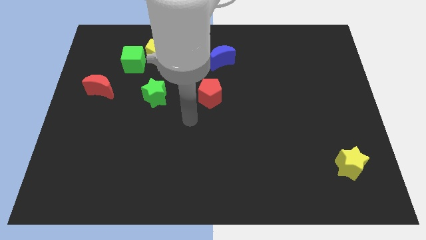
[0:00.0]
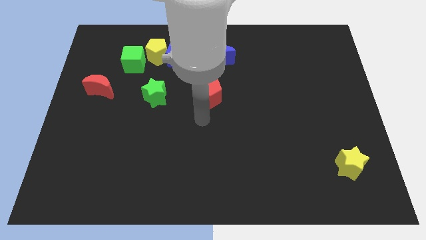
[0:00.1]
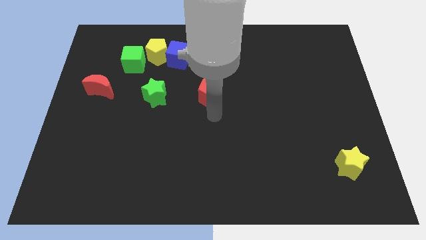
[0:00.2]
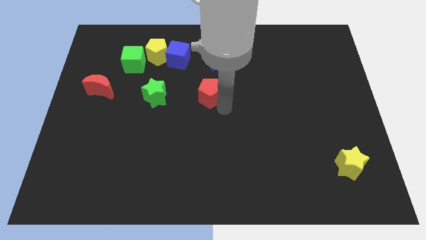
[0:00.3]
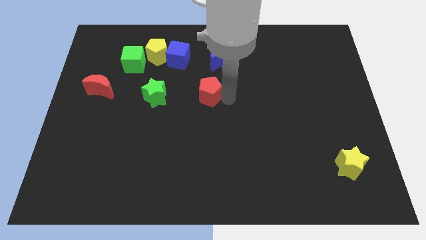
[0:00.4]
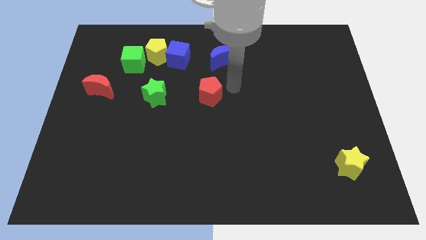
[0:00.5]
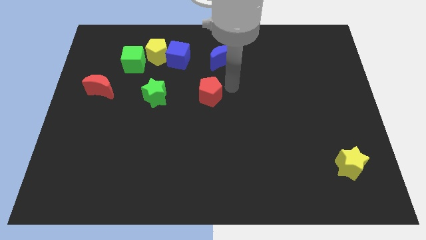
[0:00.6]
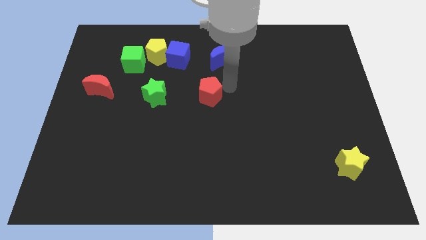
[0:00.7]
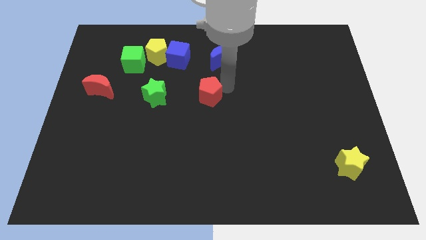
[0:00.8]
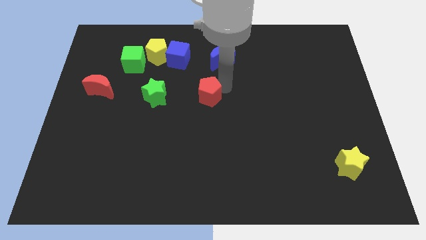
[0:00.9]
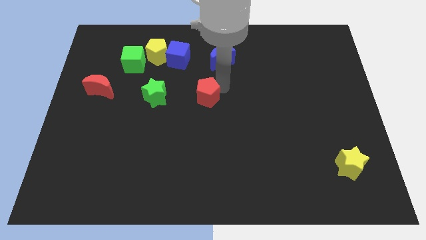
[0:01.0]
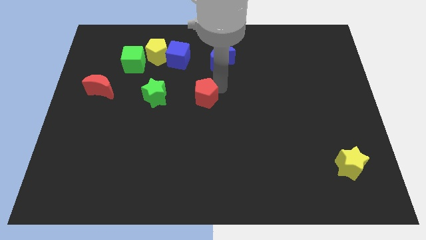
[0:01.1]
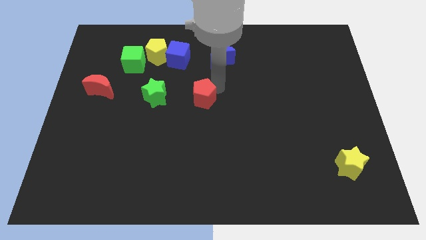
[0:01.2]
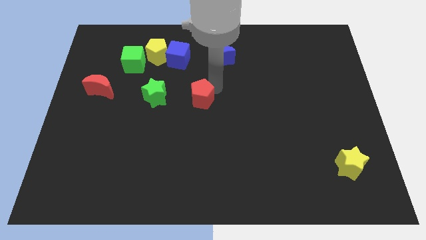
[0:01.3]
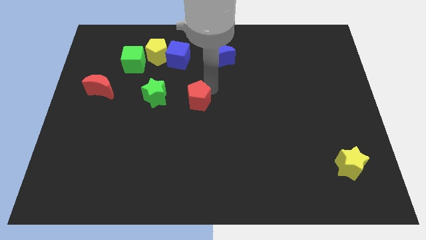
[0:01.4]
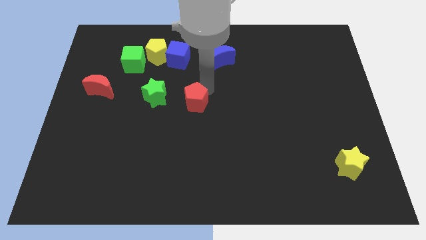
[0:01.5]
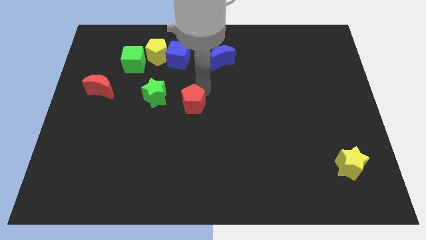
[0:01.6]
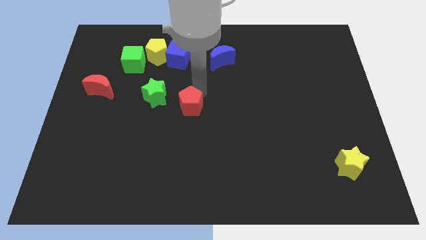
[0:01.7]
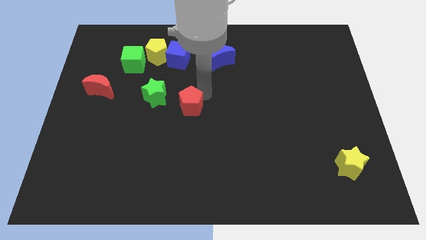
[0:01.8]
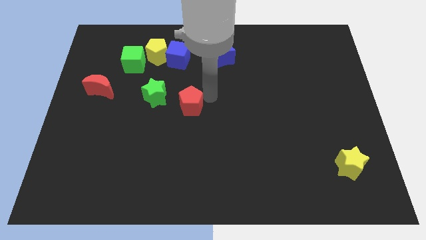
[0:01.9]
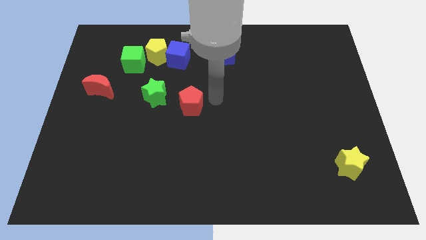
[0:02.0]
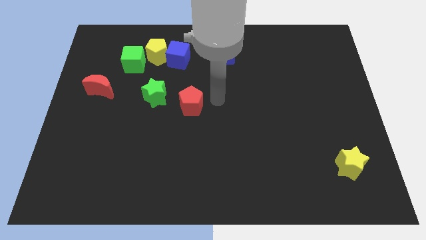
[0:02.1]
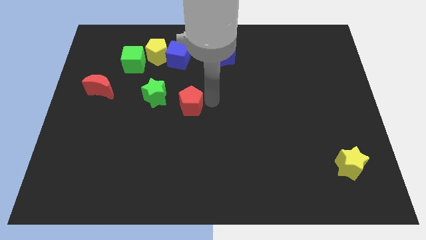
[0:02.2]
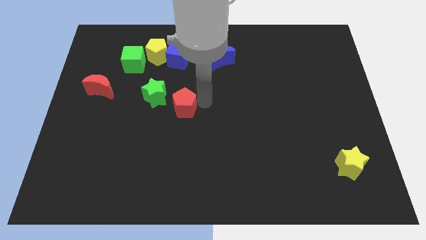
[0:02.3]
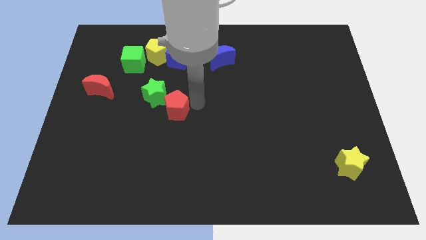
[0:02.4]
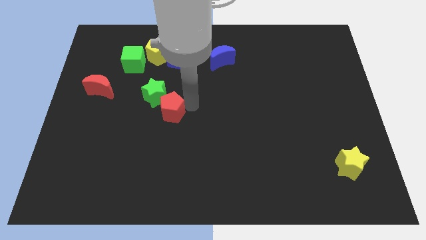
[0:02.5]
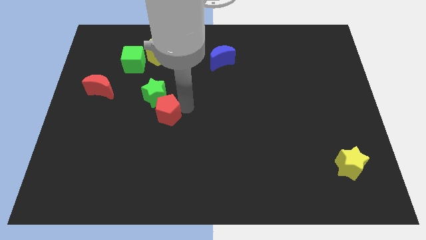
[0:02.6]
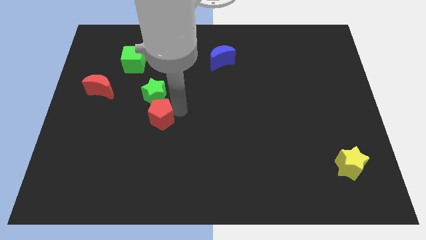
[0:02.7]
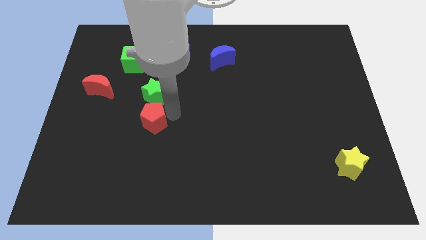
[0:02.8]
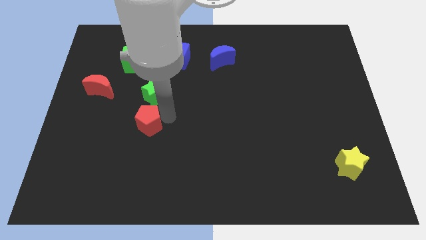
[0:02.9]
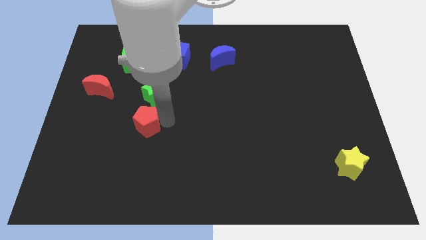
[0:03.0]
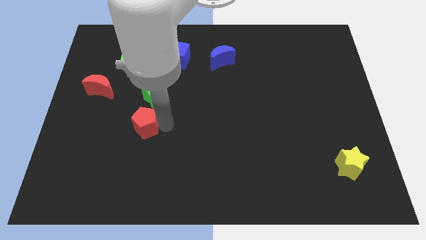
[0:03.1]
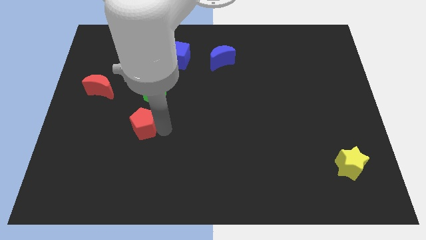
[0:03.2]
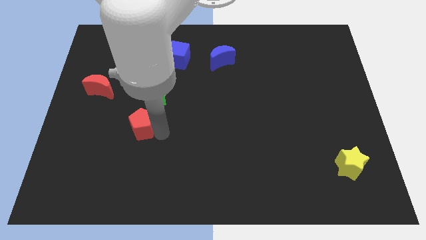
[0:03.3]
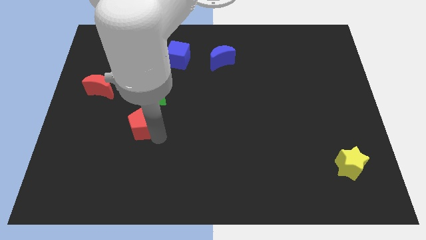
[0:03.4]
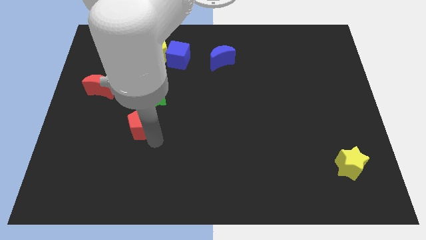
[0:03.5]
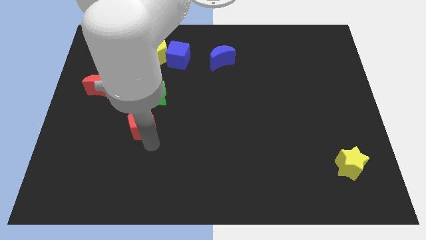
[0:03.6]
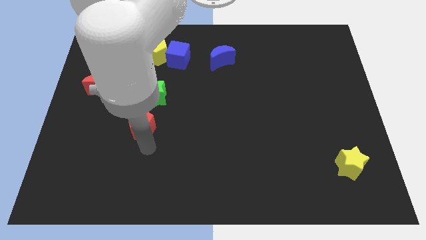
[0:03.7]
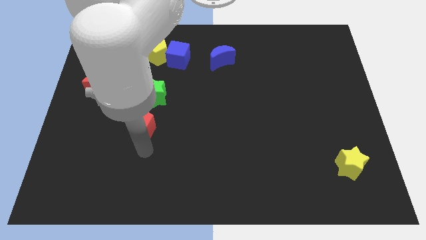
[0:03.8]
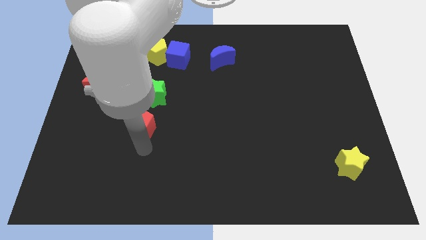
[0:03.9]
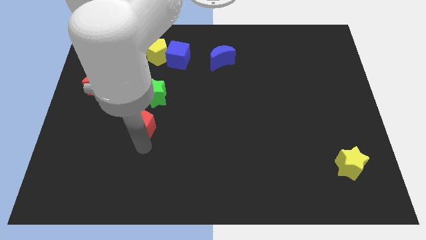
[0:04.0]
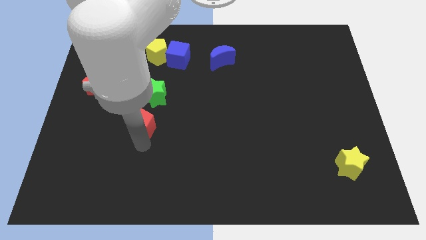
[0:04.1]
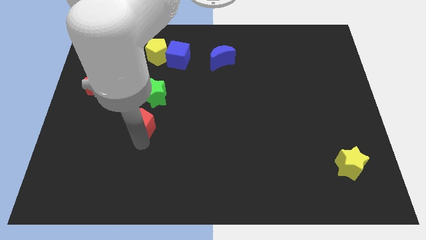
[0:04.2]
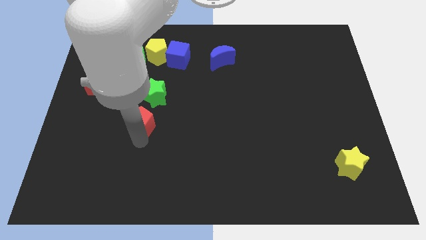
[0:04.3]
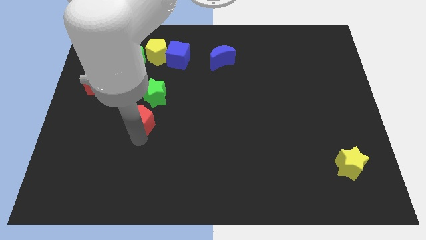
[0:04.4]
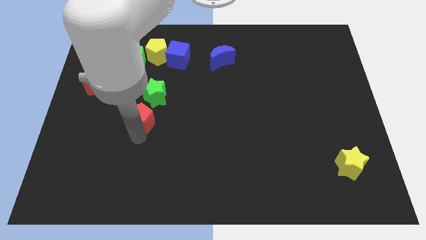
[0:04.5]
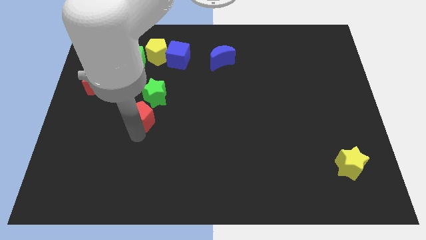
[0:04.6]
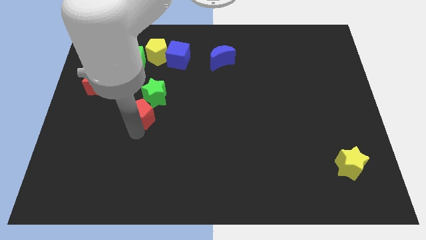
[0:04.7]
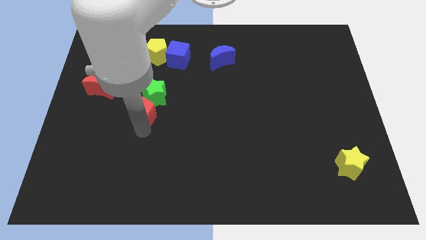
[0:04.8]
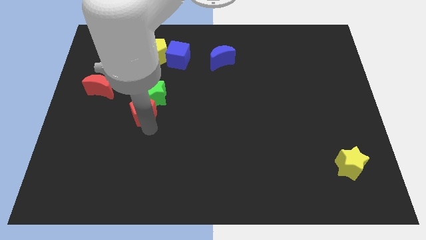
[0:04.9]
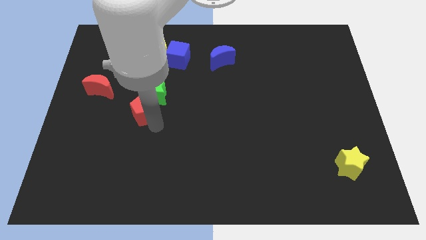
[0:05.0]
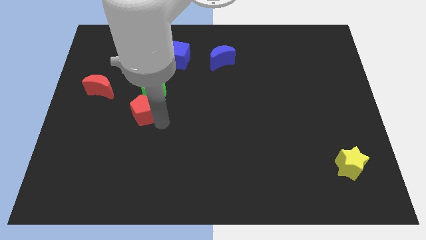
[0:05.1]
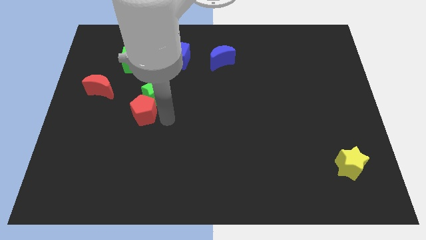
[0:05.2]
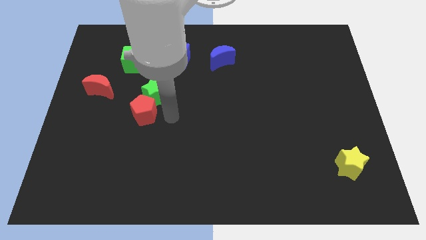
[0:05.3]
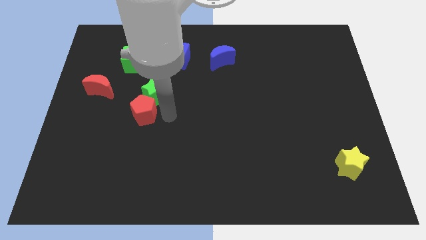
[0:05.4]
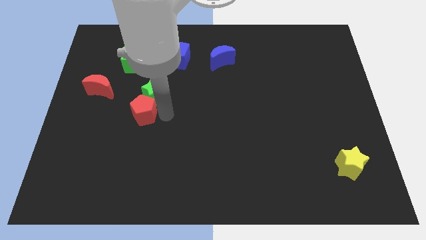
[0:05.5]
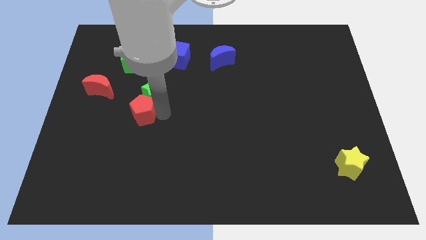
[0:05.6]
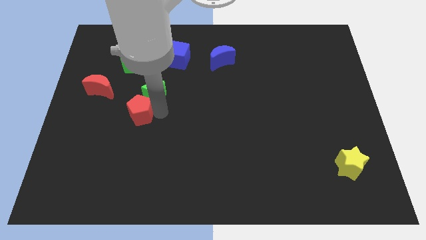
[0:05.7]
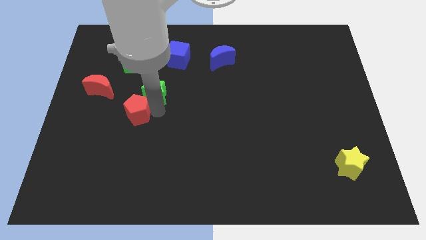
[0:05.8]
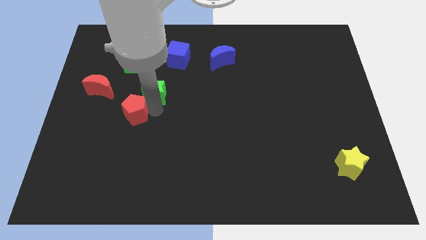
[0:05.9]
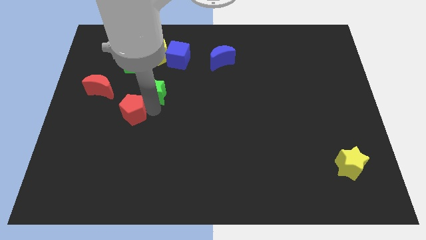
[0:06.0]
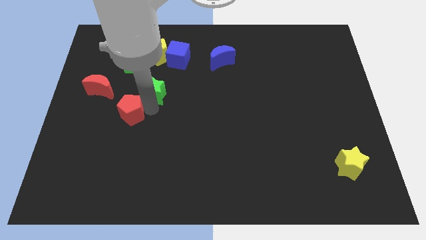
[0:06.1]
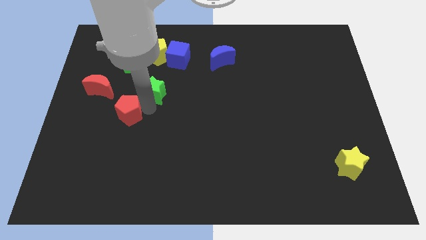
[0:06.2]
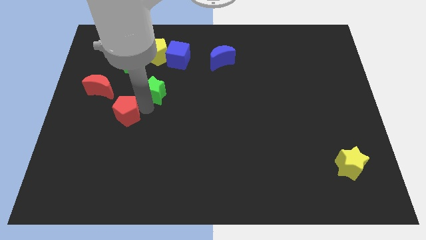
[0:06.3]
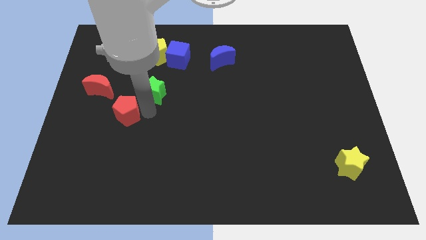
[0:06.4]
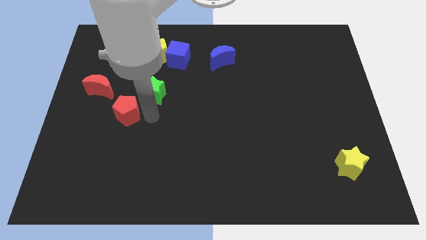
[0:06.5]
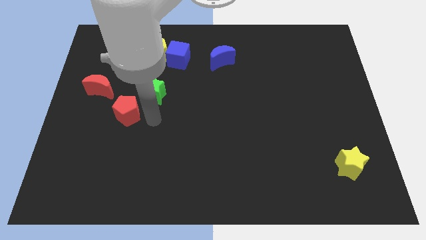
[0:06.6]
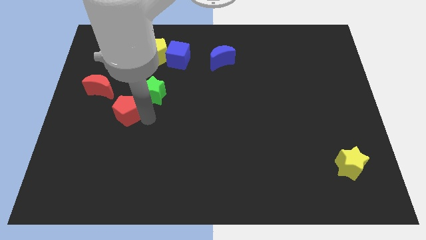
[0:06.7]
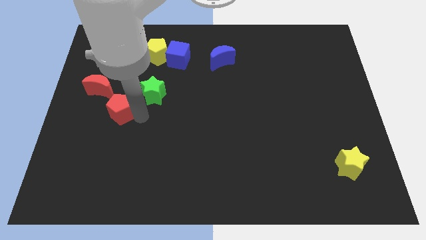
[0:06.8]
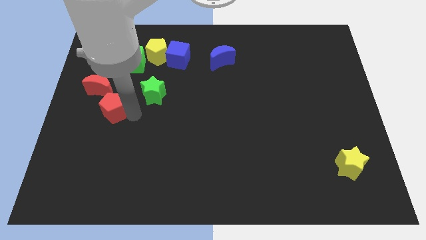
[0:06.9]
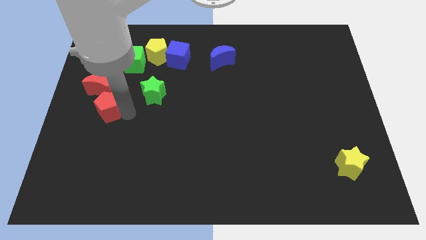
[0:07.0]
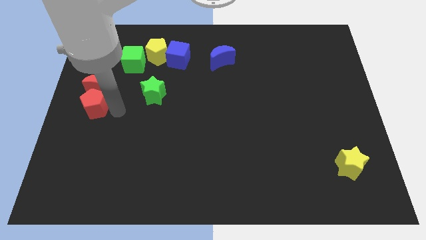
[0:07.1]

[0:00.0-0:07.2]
push the red pentagon to the center left
